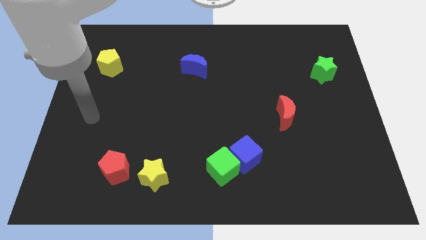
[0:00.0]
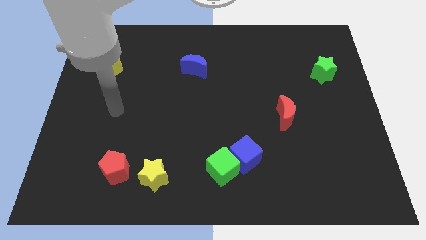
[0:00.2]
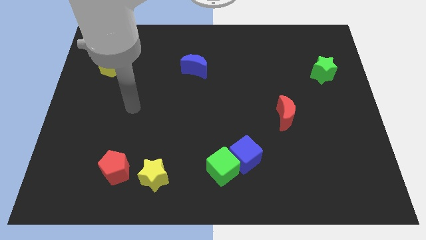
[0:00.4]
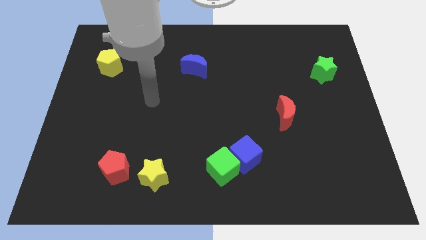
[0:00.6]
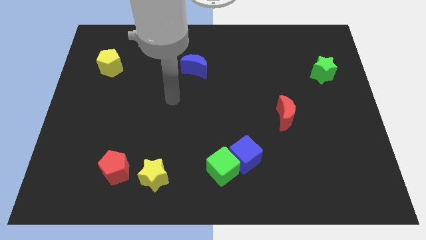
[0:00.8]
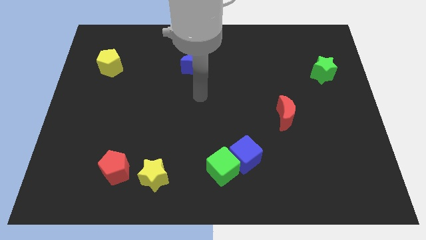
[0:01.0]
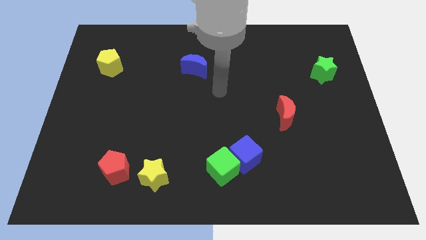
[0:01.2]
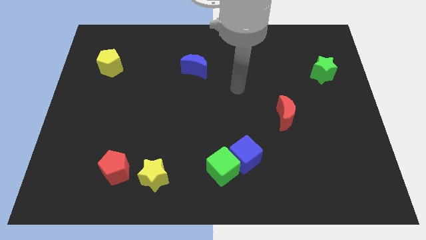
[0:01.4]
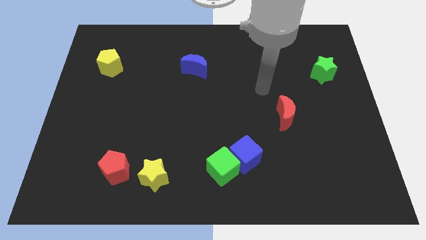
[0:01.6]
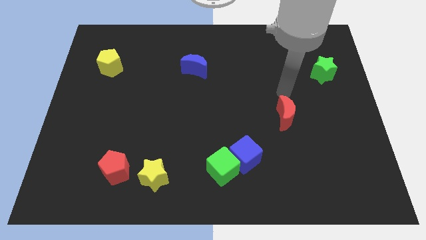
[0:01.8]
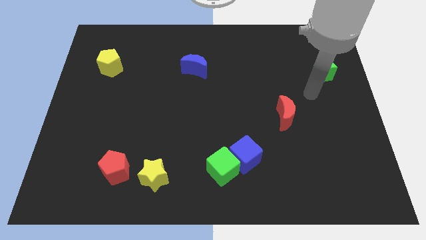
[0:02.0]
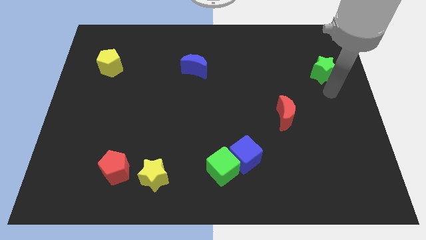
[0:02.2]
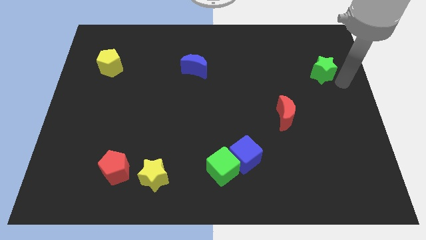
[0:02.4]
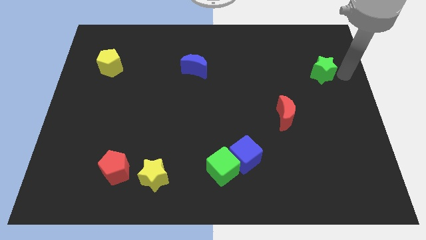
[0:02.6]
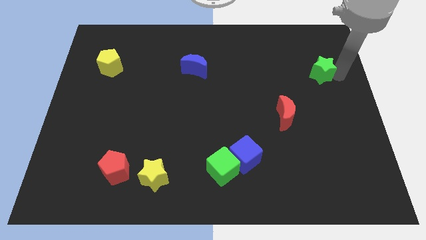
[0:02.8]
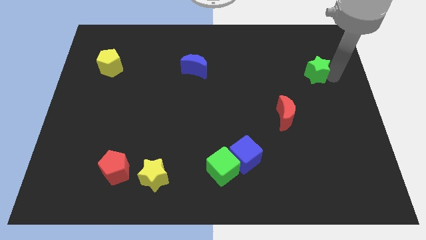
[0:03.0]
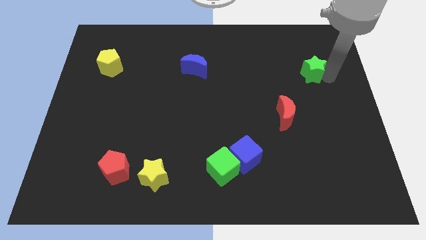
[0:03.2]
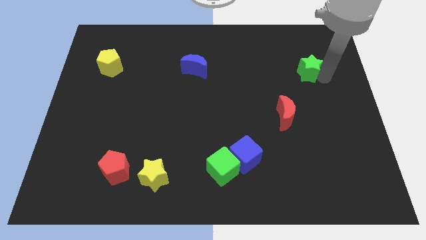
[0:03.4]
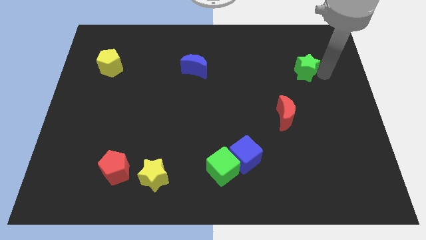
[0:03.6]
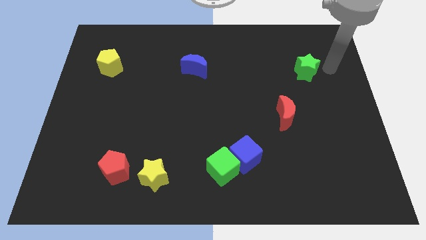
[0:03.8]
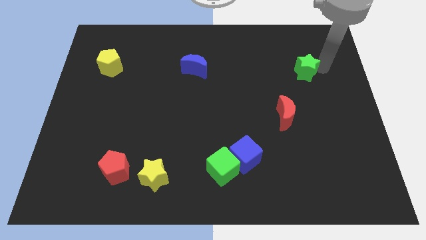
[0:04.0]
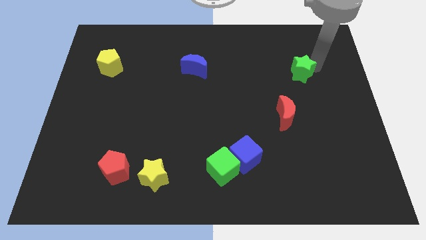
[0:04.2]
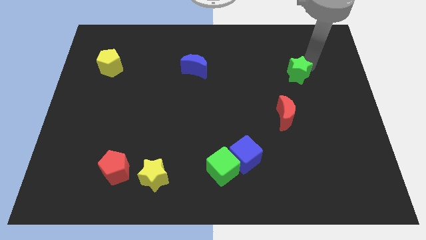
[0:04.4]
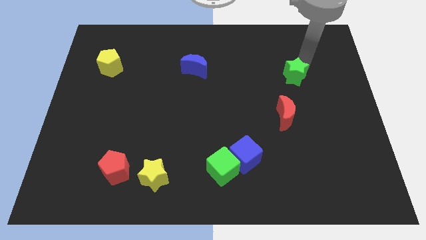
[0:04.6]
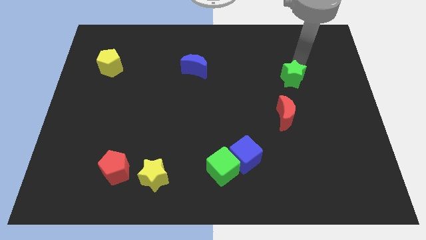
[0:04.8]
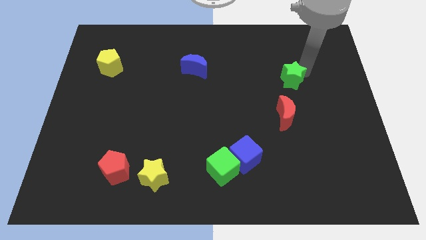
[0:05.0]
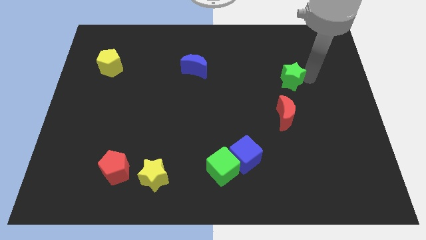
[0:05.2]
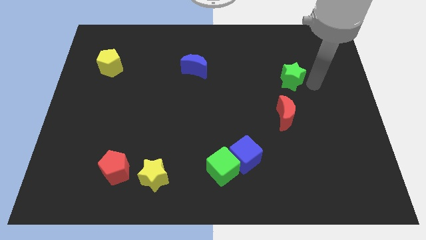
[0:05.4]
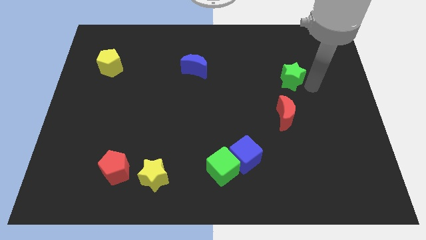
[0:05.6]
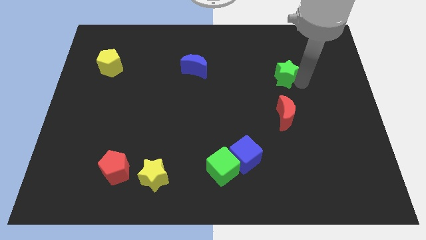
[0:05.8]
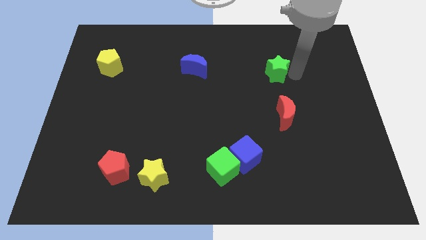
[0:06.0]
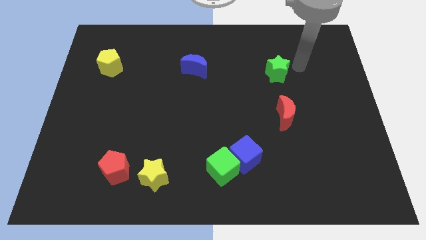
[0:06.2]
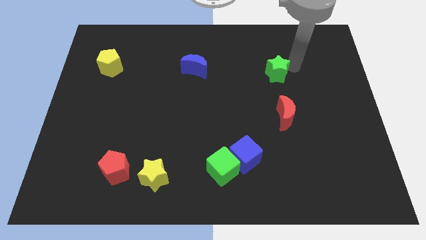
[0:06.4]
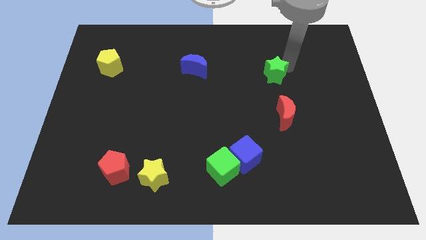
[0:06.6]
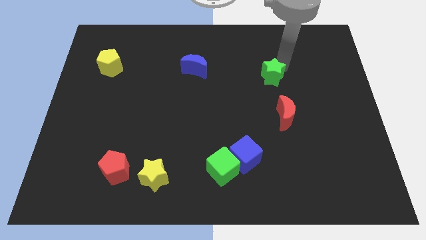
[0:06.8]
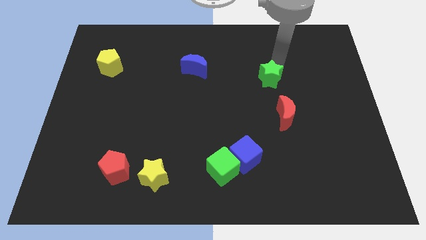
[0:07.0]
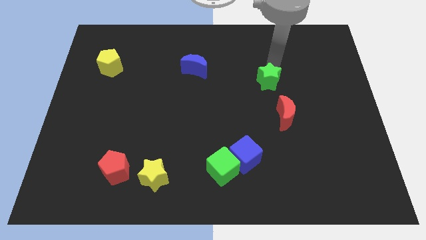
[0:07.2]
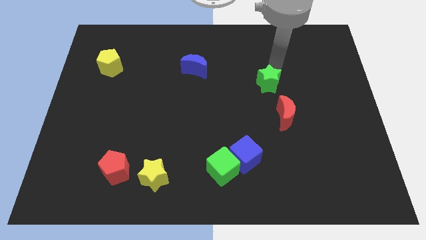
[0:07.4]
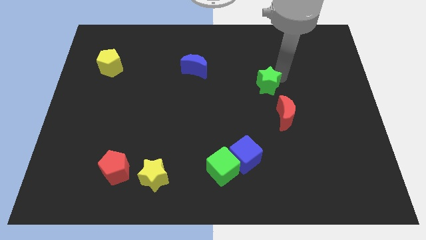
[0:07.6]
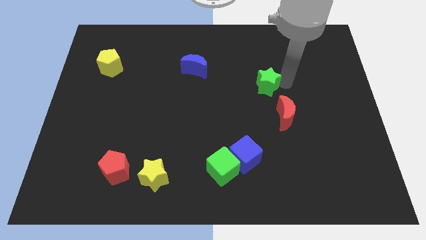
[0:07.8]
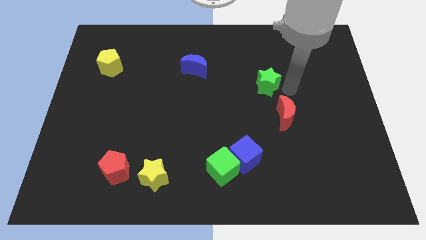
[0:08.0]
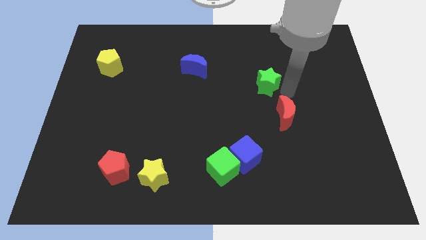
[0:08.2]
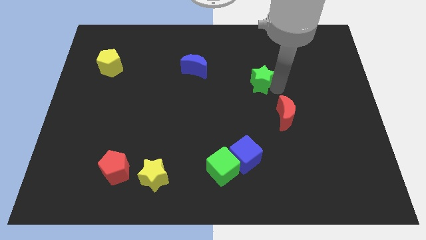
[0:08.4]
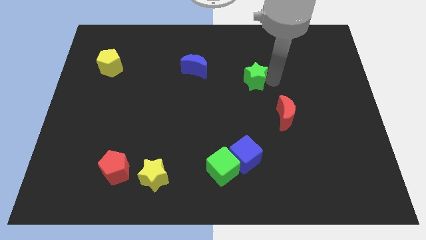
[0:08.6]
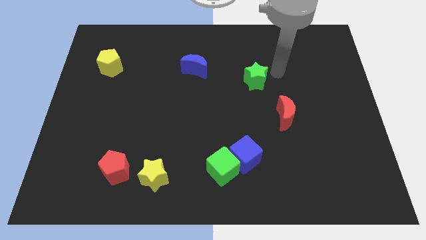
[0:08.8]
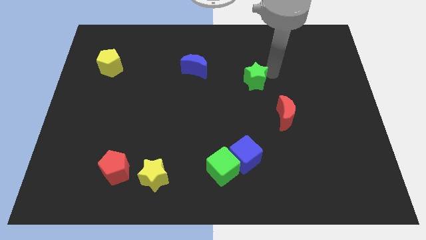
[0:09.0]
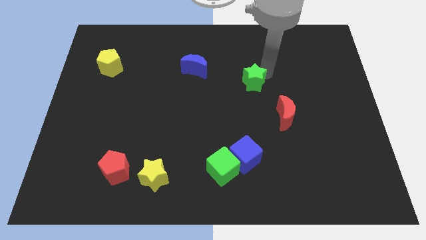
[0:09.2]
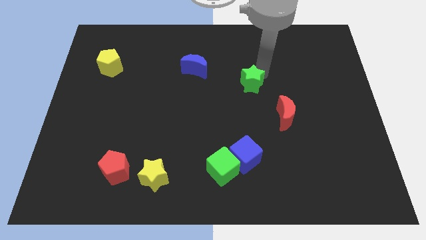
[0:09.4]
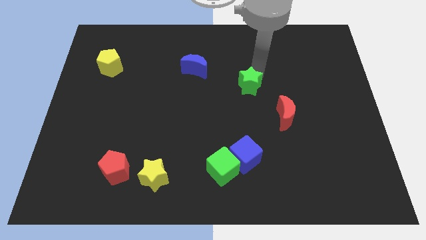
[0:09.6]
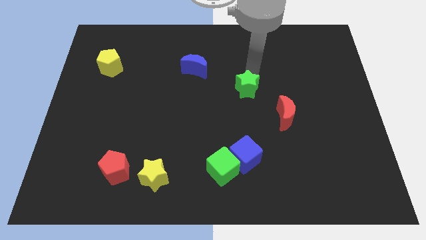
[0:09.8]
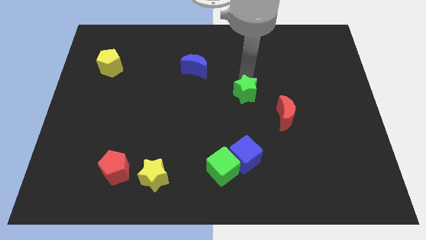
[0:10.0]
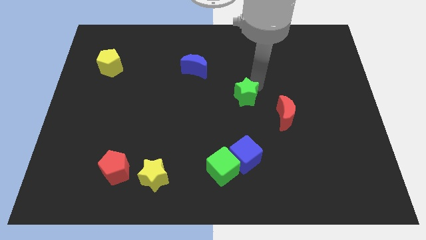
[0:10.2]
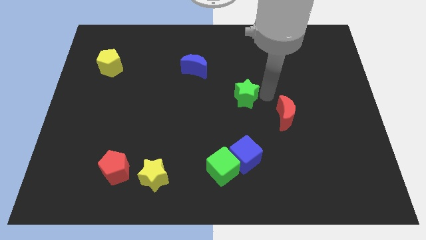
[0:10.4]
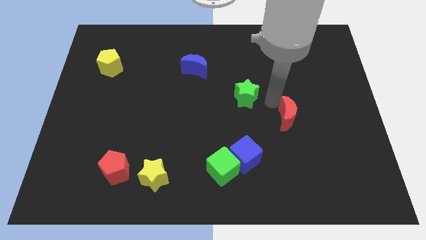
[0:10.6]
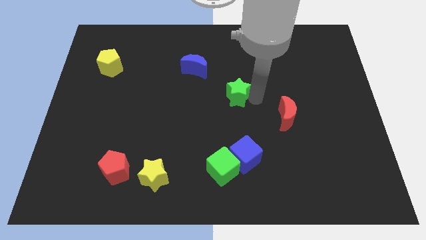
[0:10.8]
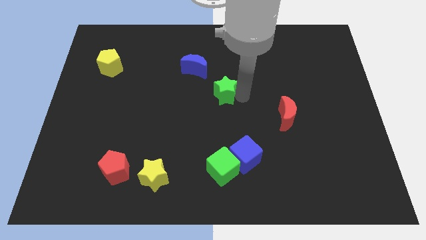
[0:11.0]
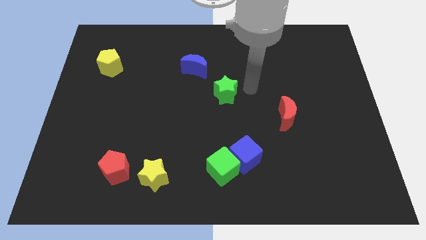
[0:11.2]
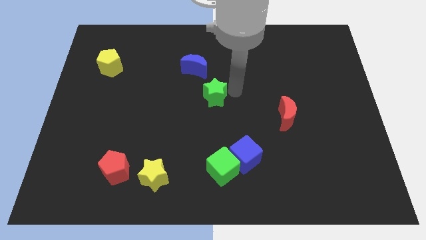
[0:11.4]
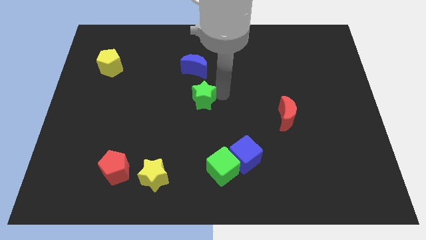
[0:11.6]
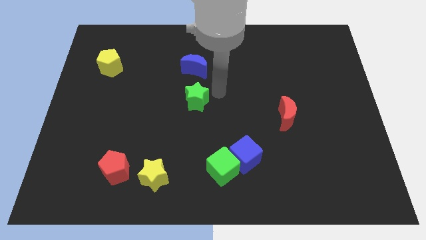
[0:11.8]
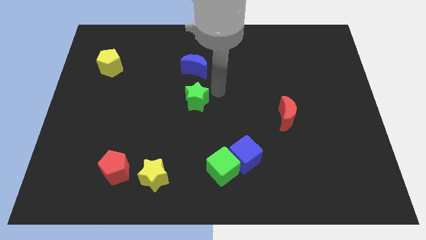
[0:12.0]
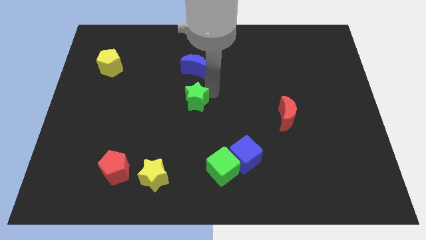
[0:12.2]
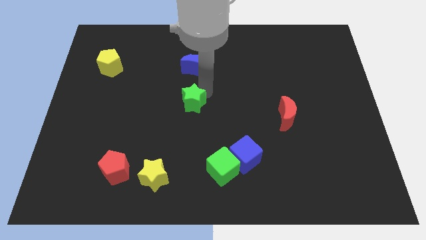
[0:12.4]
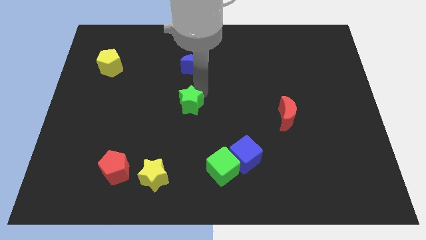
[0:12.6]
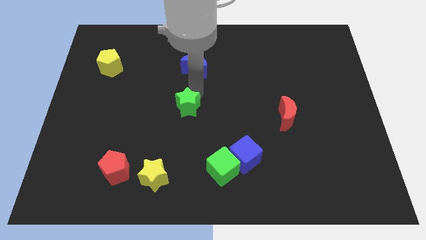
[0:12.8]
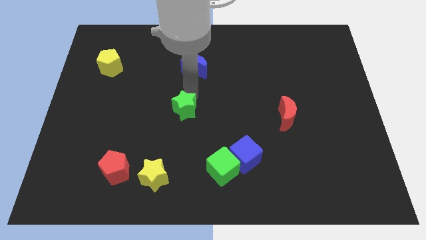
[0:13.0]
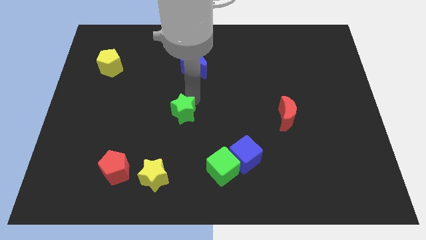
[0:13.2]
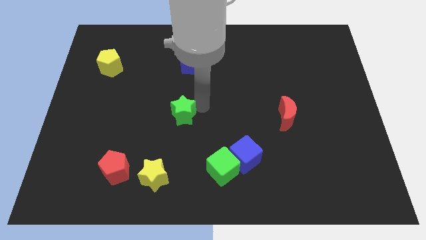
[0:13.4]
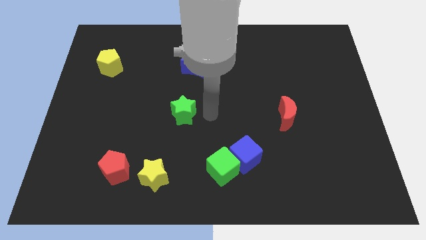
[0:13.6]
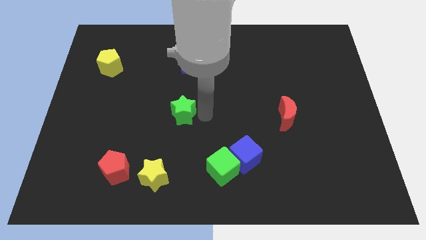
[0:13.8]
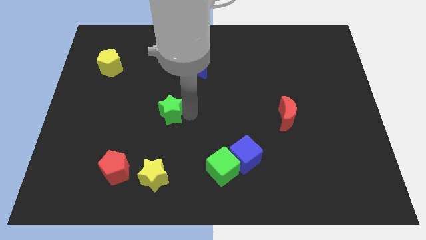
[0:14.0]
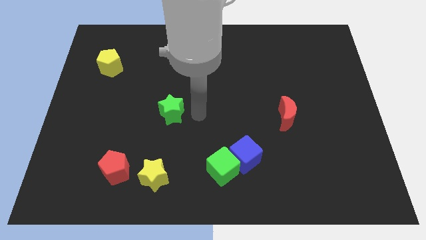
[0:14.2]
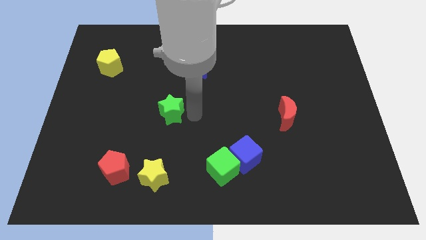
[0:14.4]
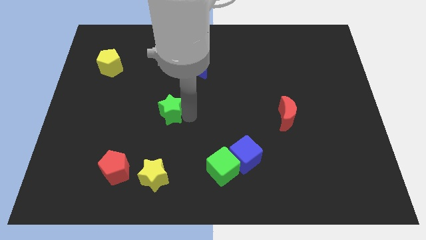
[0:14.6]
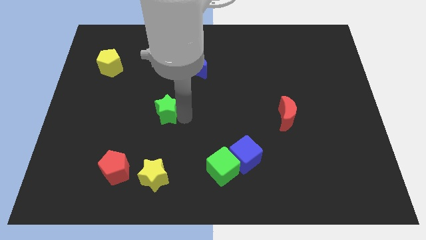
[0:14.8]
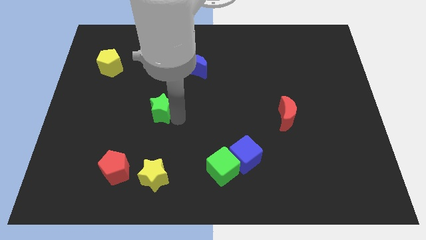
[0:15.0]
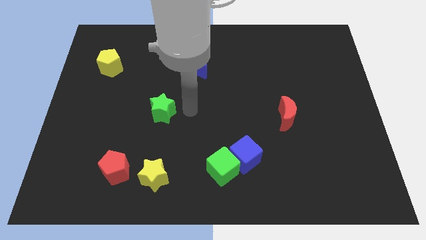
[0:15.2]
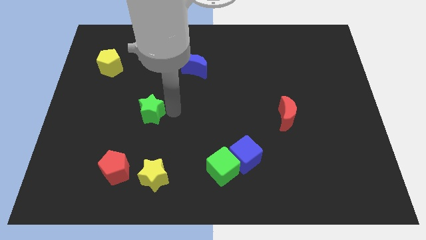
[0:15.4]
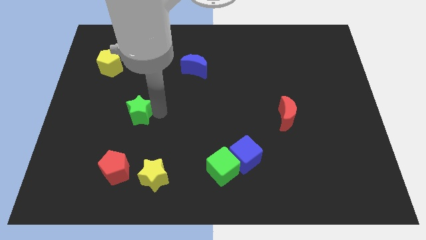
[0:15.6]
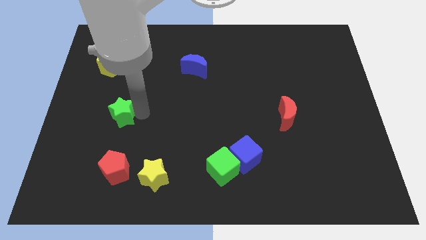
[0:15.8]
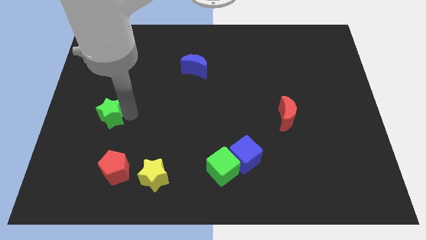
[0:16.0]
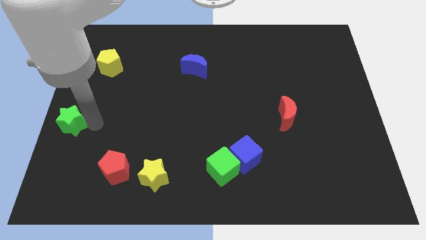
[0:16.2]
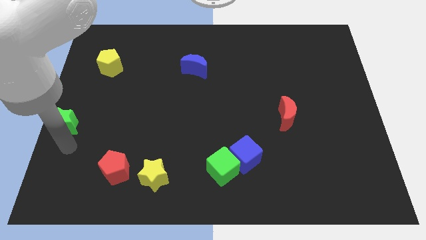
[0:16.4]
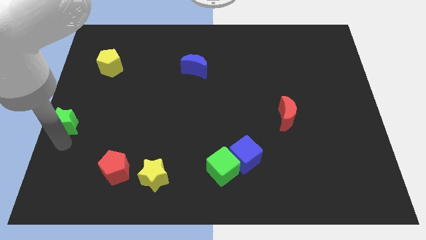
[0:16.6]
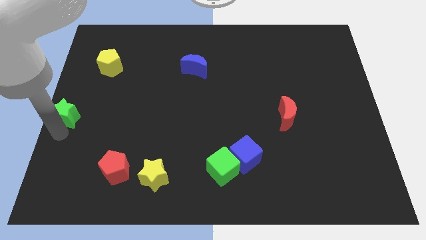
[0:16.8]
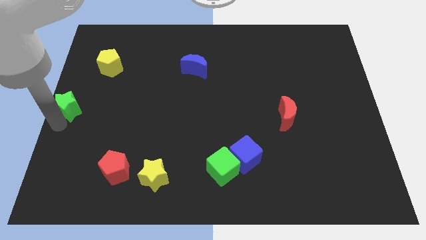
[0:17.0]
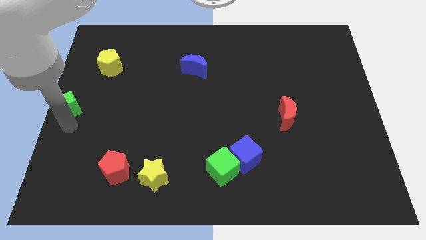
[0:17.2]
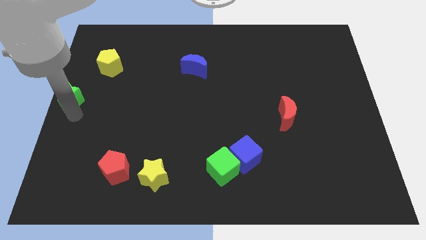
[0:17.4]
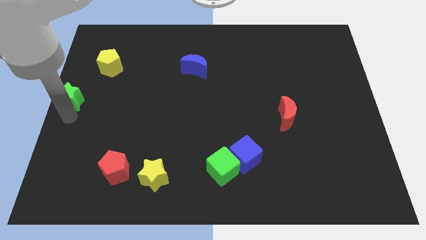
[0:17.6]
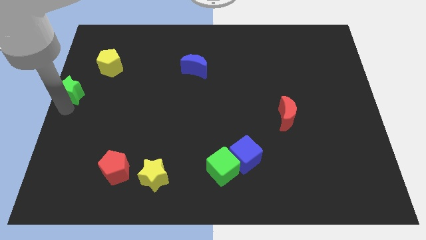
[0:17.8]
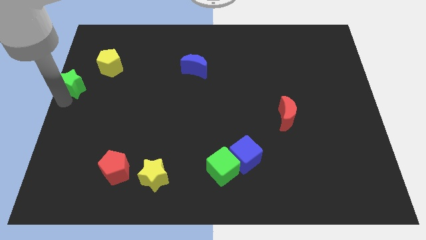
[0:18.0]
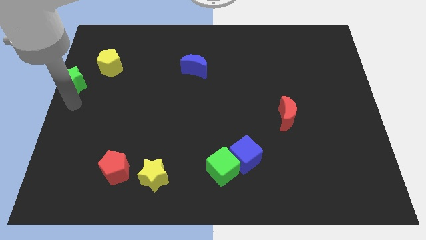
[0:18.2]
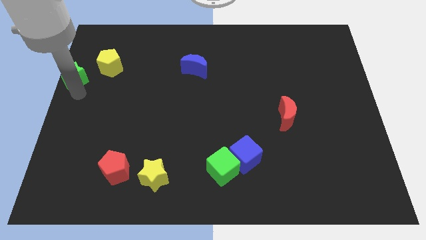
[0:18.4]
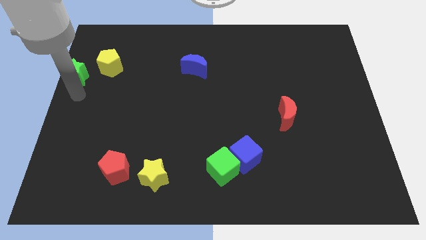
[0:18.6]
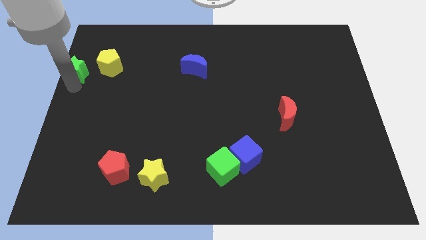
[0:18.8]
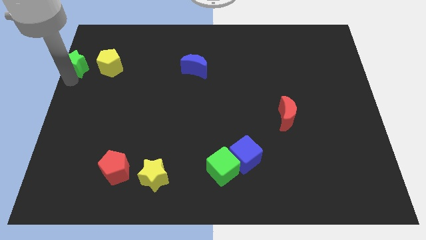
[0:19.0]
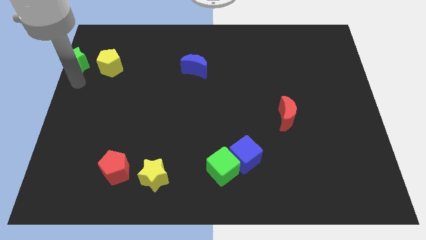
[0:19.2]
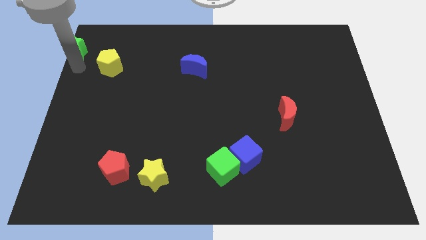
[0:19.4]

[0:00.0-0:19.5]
push the green star to the top left of the board
